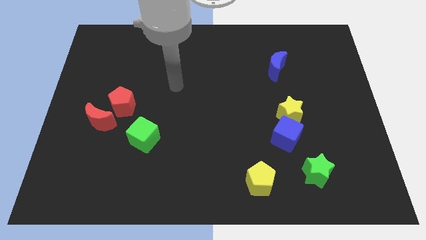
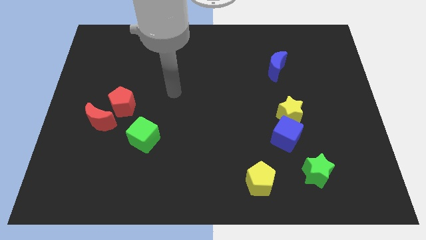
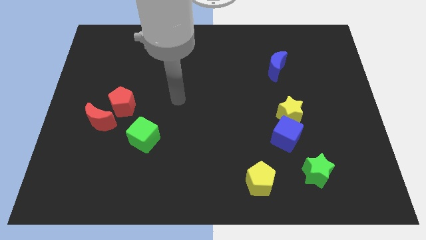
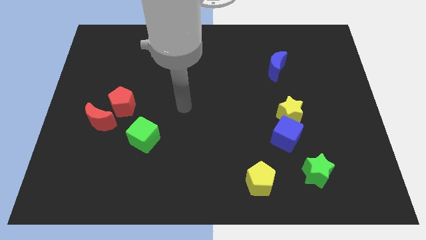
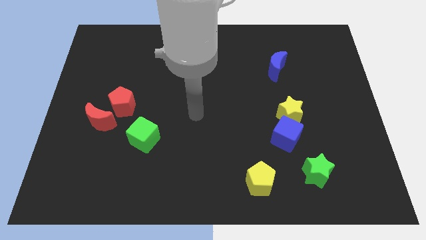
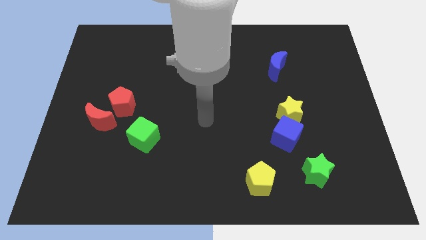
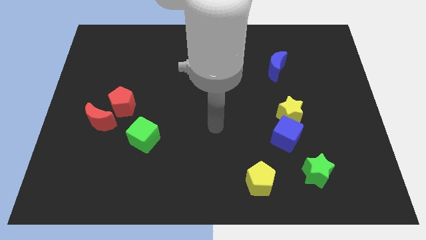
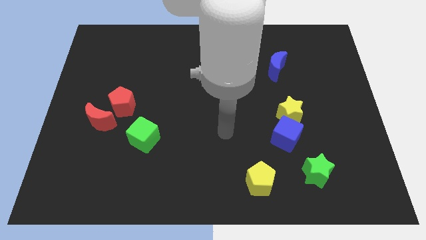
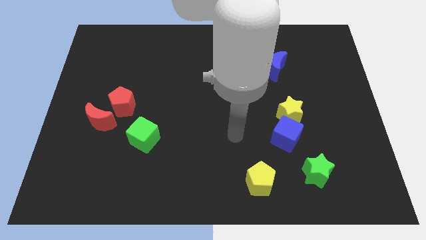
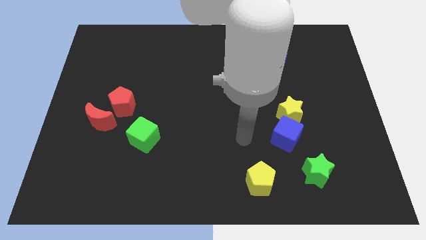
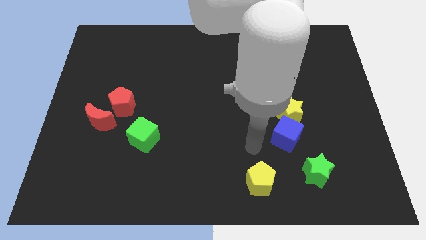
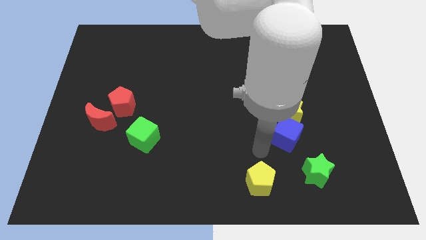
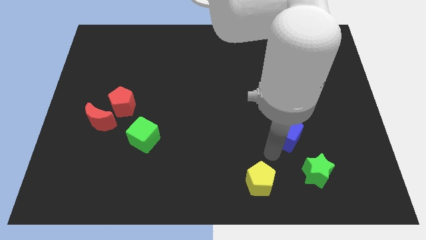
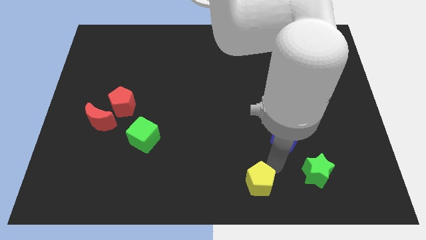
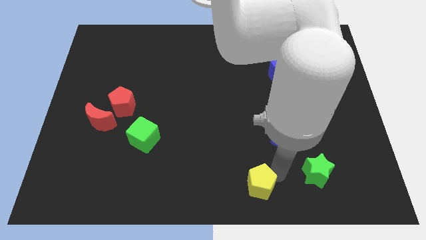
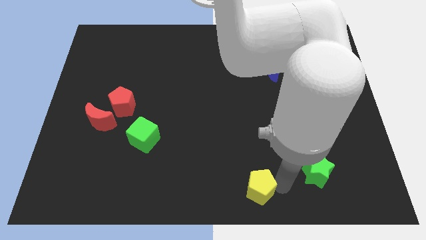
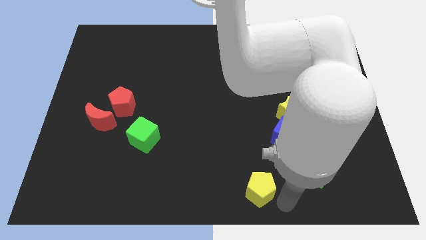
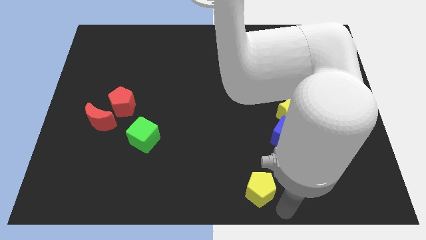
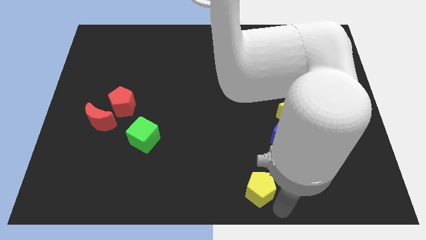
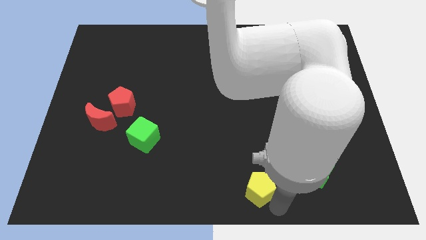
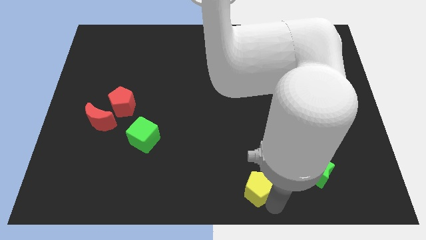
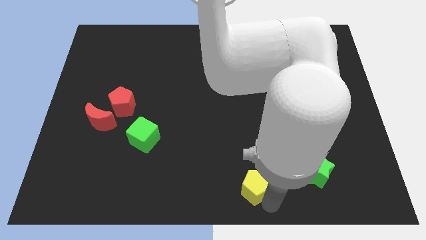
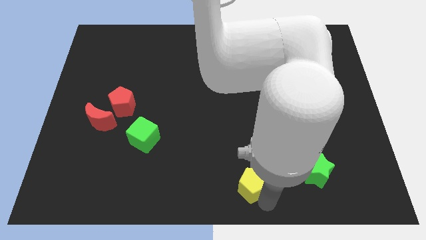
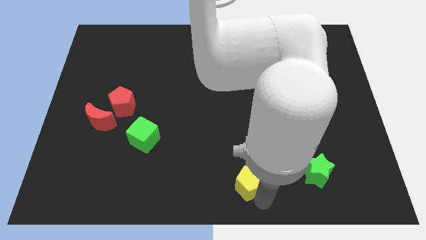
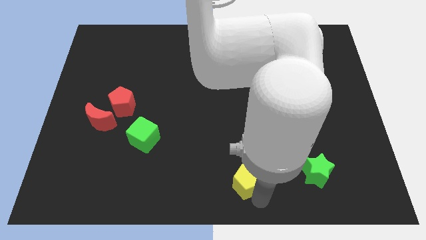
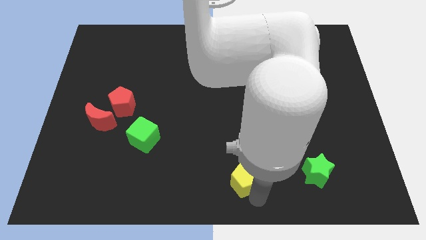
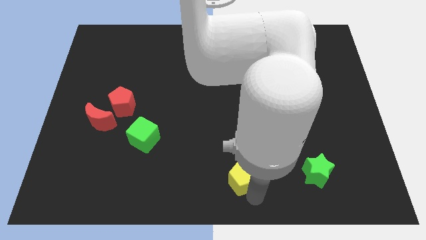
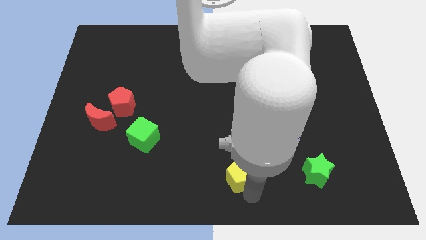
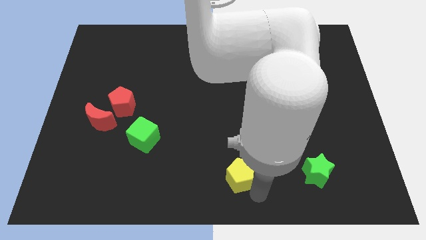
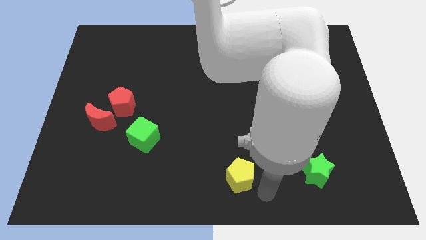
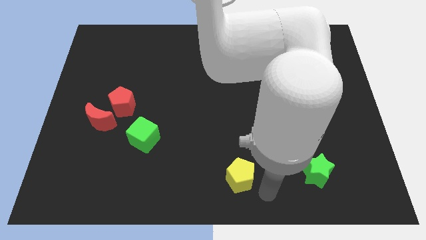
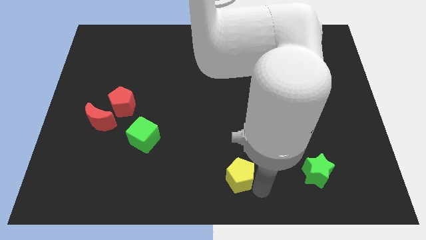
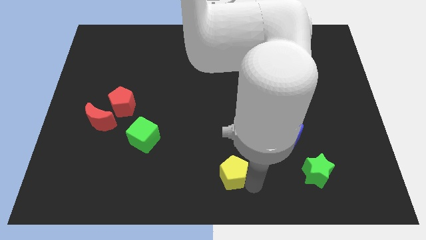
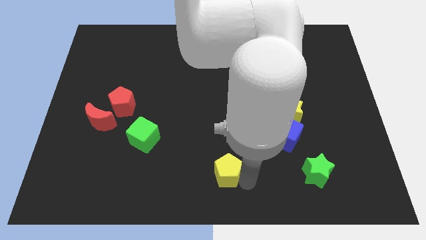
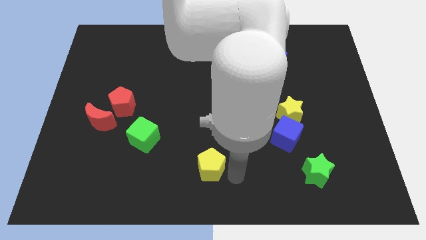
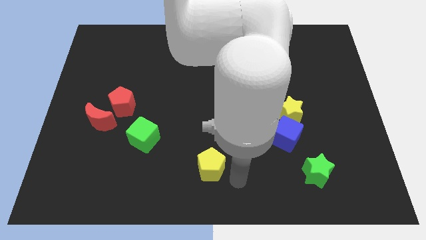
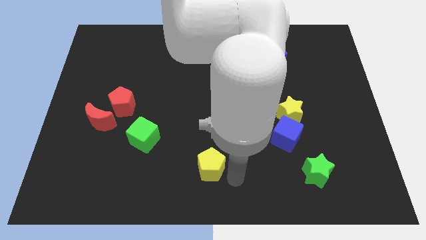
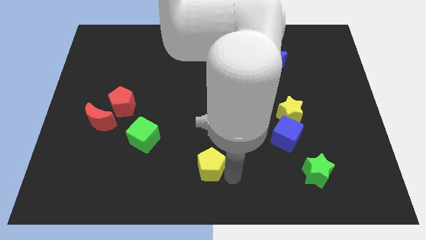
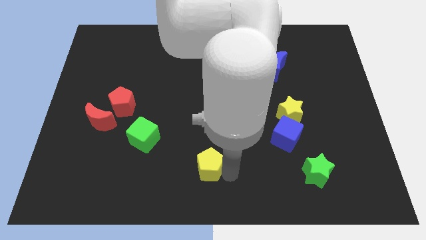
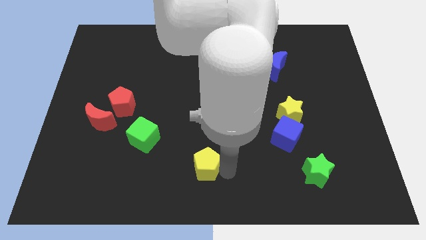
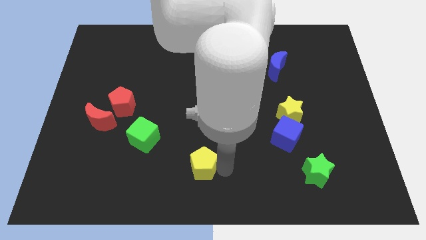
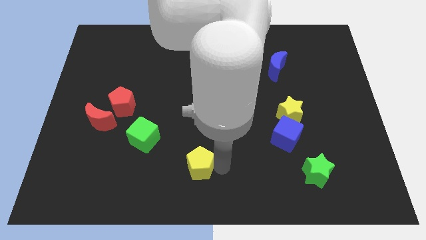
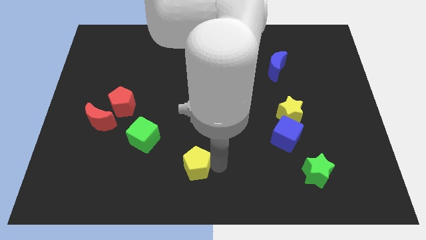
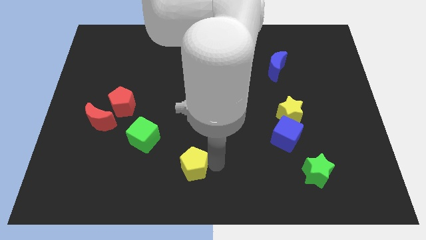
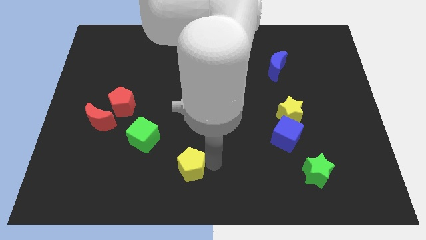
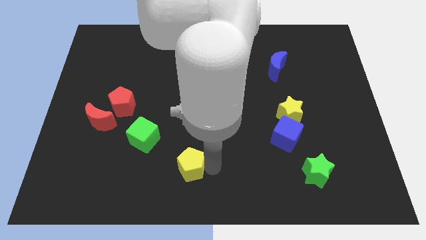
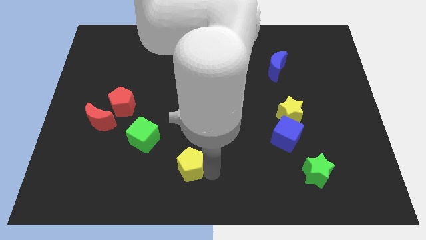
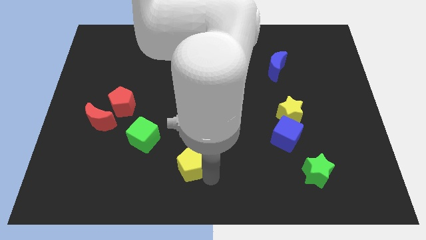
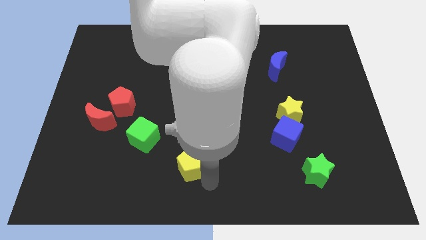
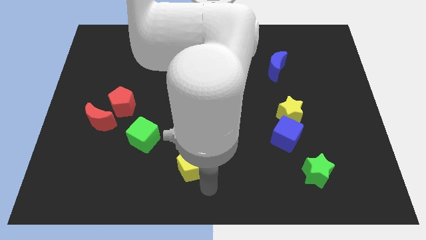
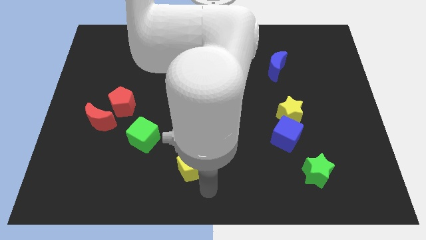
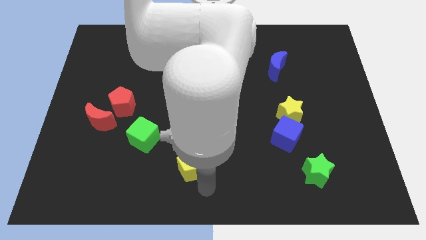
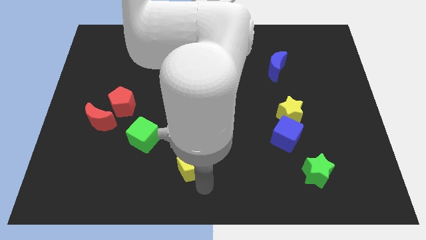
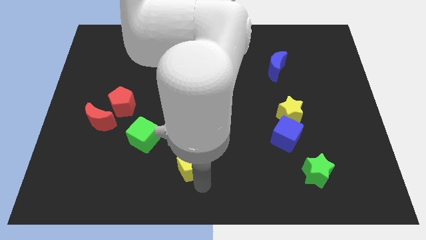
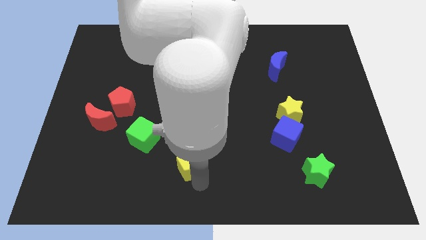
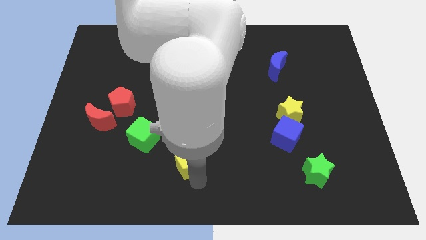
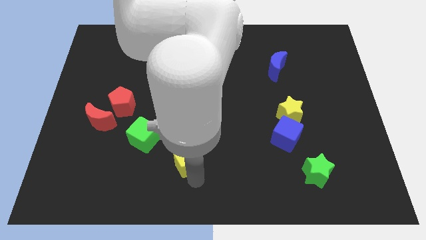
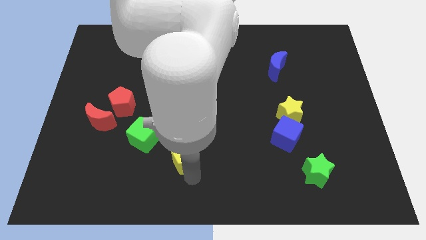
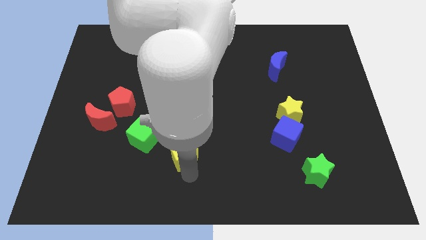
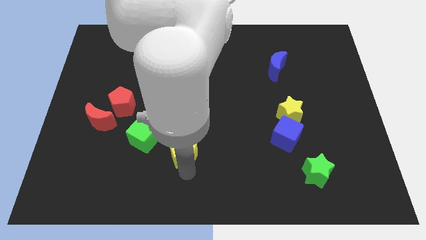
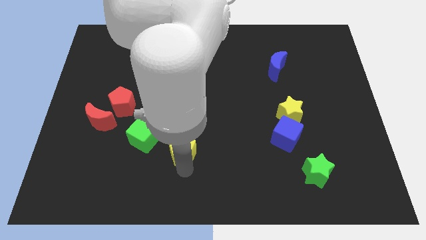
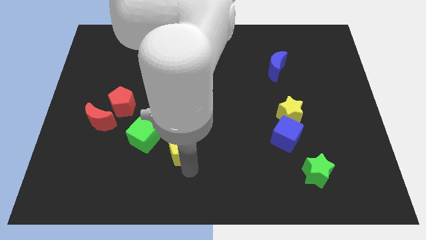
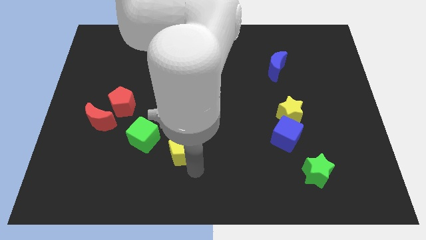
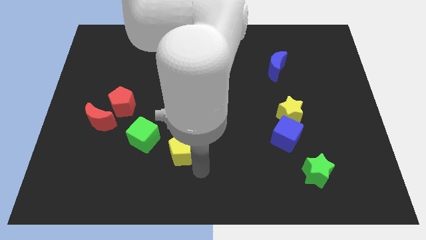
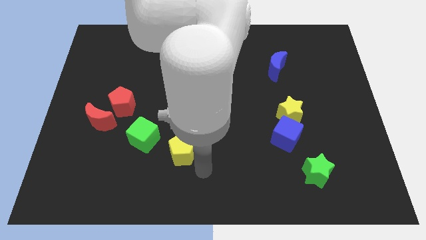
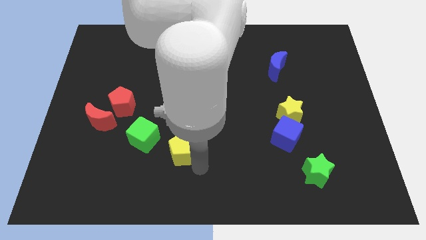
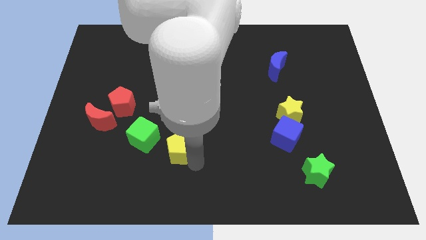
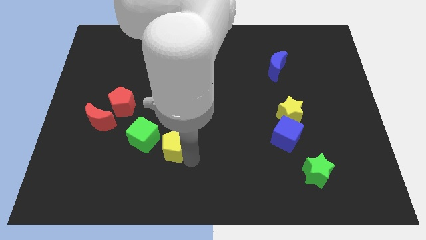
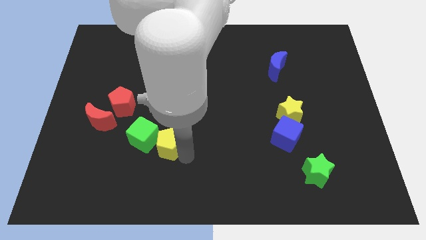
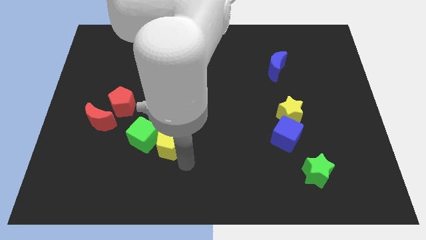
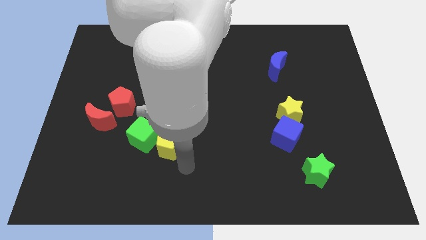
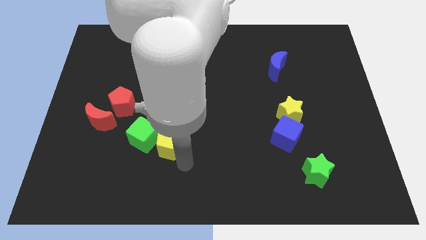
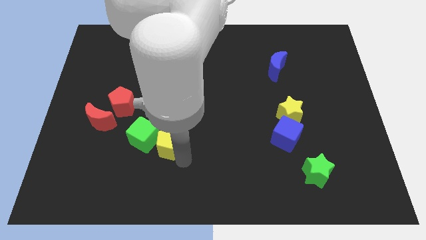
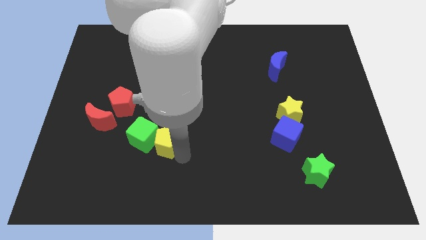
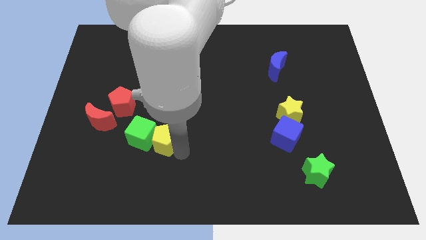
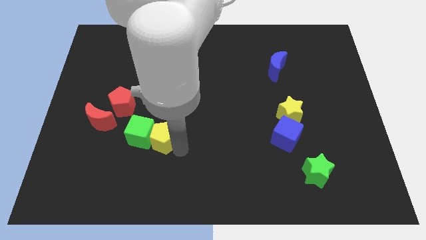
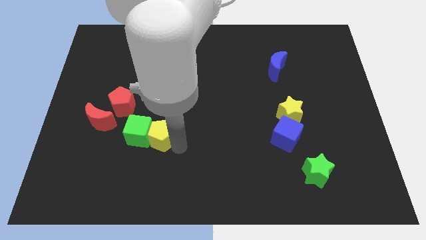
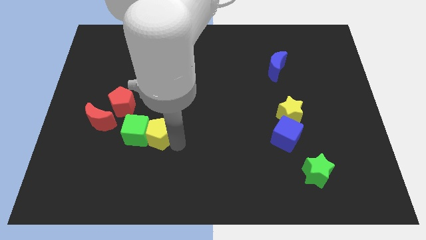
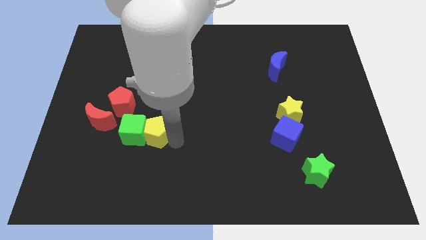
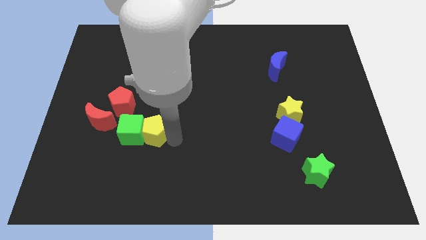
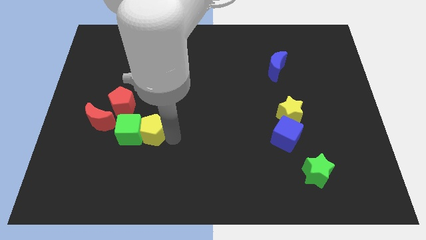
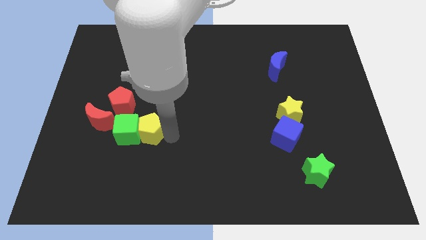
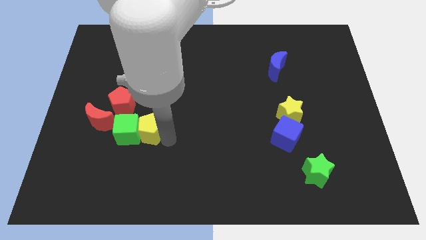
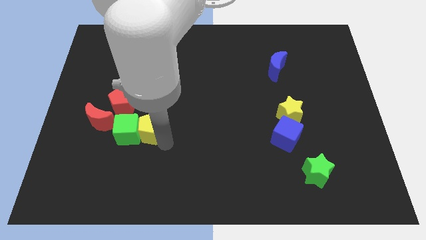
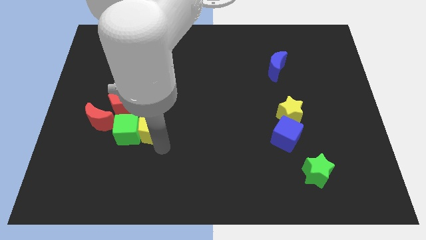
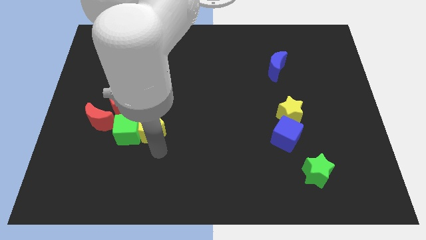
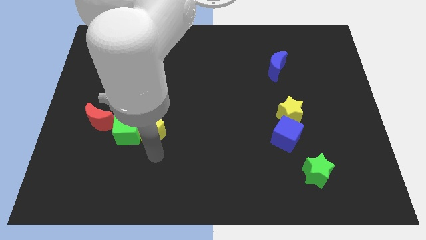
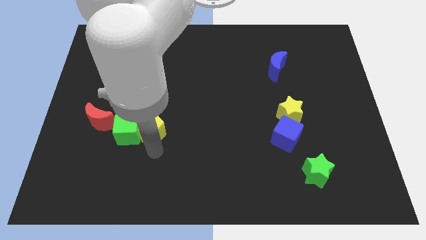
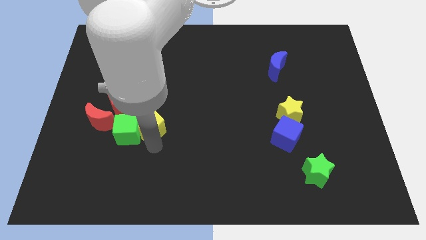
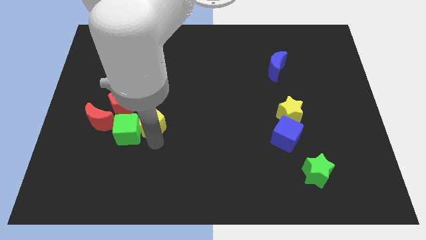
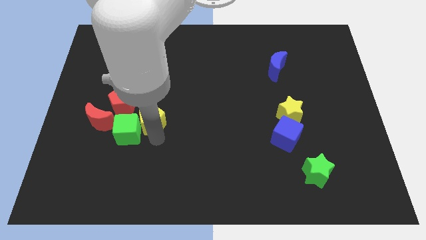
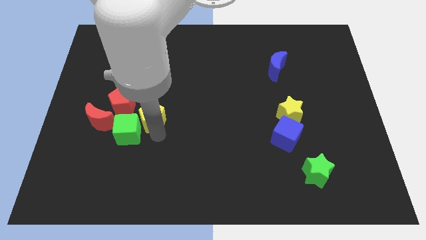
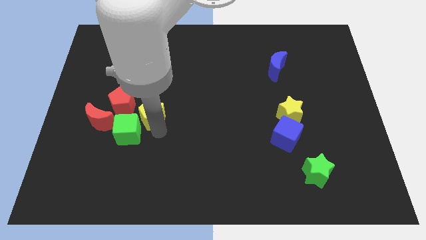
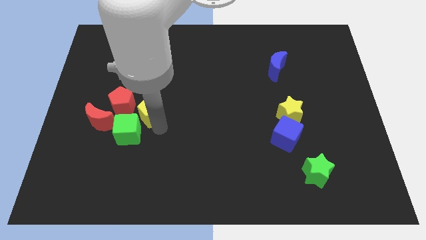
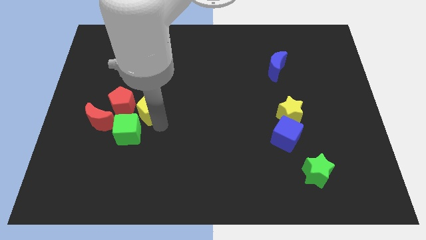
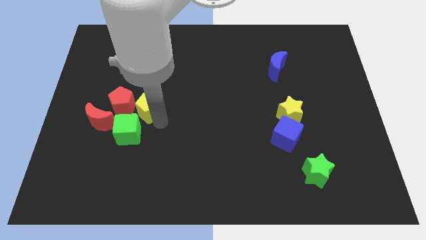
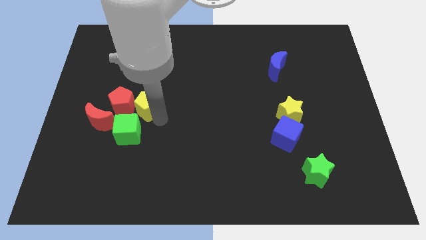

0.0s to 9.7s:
slide the yellow pentagon next to the red pentagon
